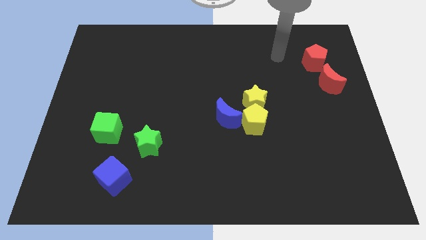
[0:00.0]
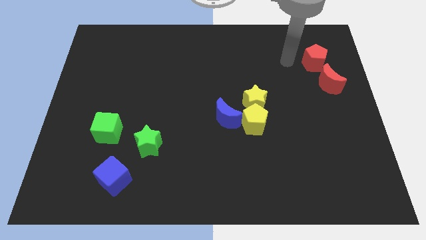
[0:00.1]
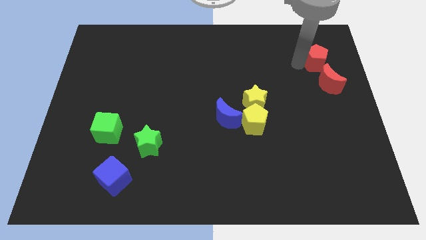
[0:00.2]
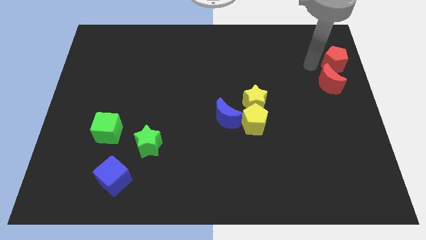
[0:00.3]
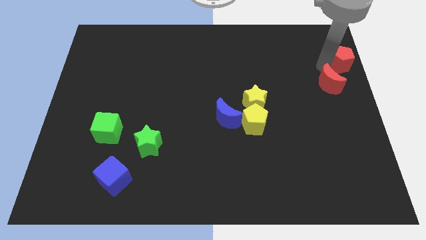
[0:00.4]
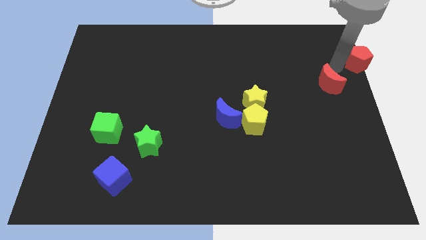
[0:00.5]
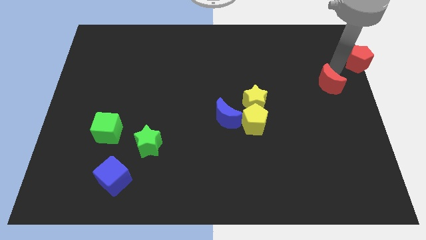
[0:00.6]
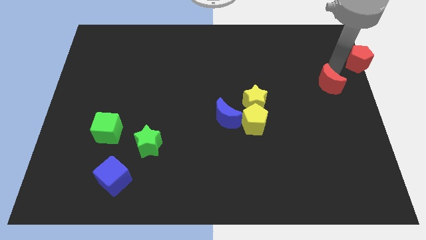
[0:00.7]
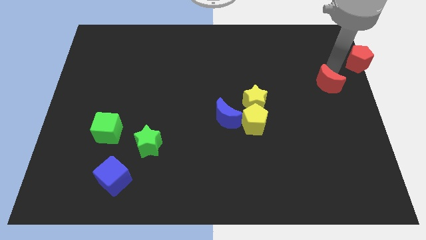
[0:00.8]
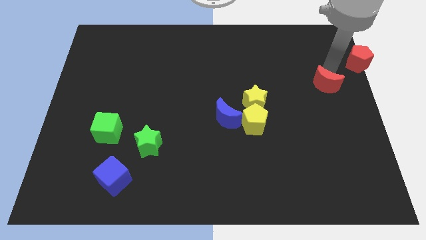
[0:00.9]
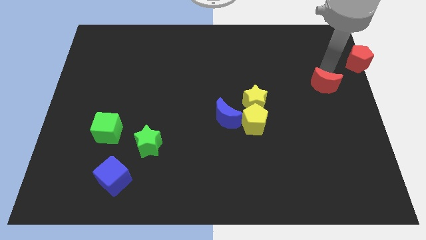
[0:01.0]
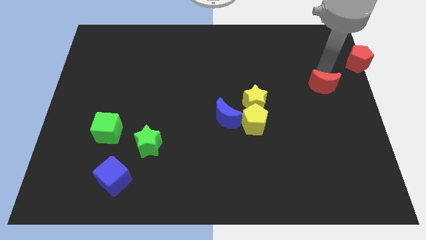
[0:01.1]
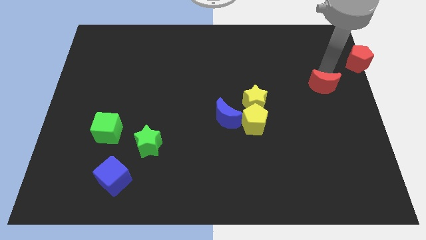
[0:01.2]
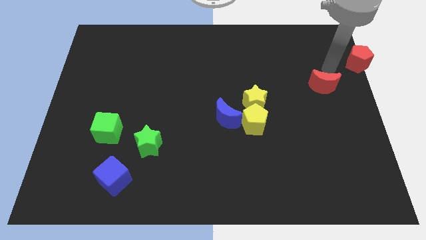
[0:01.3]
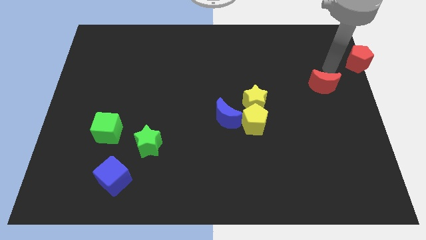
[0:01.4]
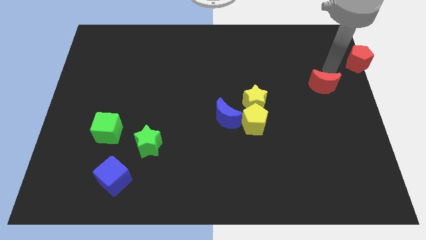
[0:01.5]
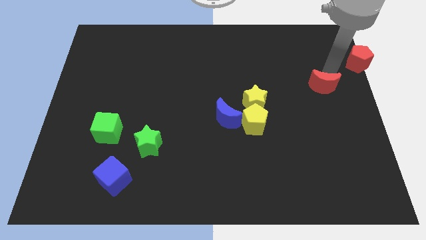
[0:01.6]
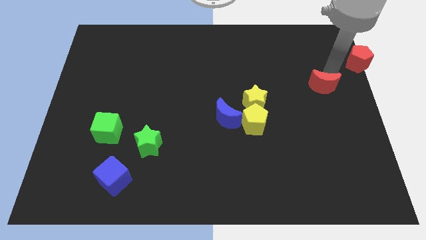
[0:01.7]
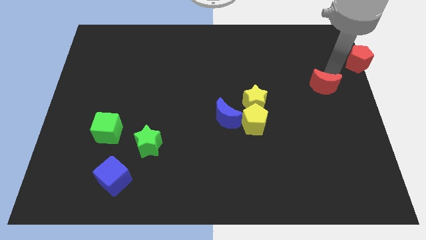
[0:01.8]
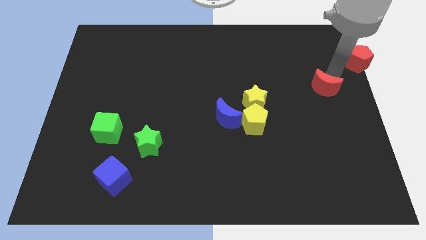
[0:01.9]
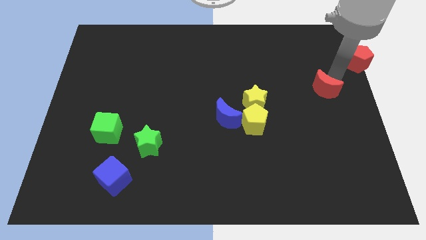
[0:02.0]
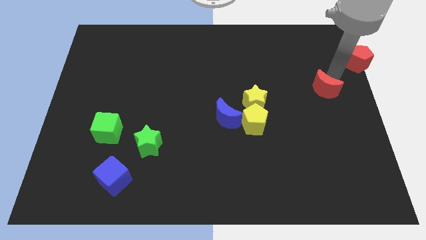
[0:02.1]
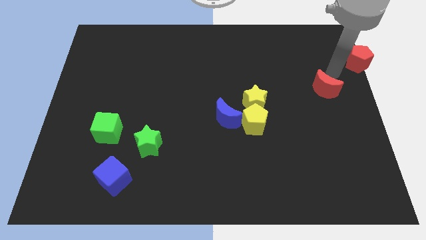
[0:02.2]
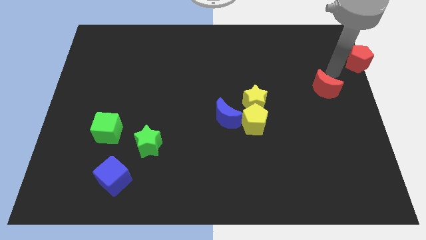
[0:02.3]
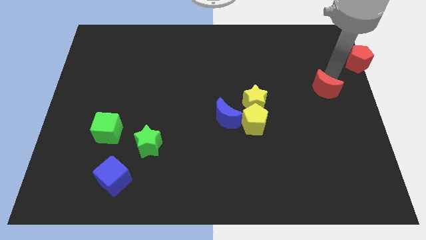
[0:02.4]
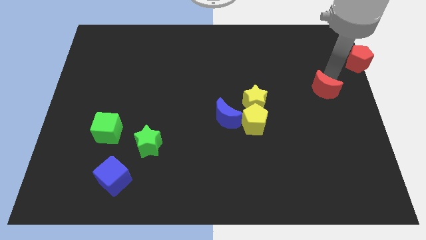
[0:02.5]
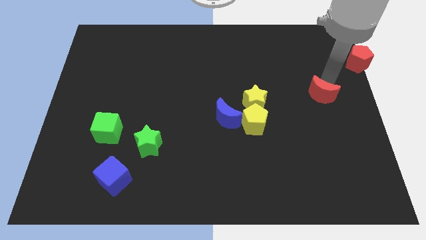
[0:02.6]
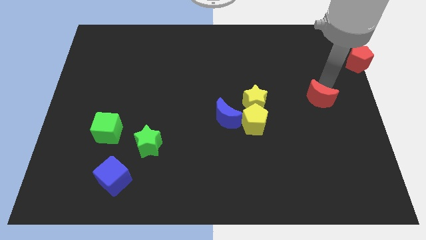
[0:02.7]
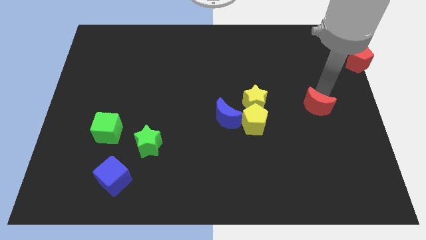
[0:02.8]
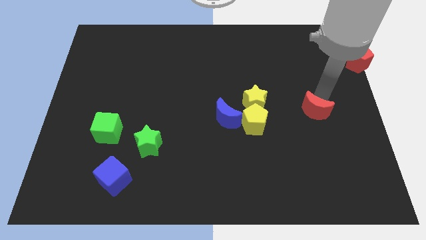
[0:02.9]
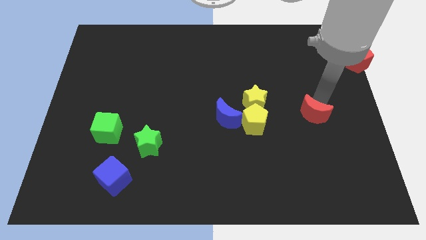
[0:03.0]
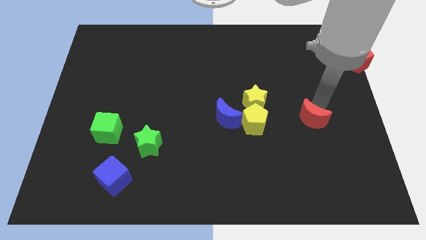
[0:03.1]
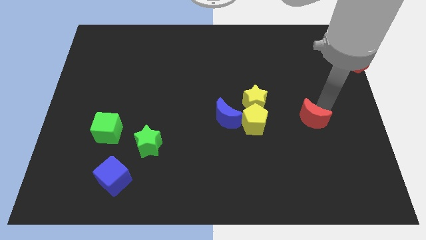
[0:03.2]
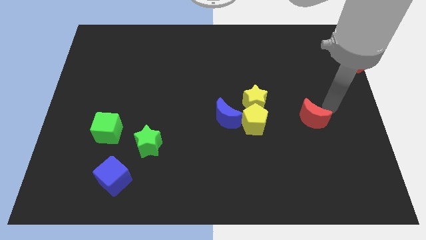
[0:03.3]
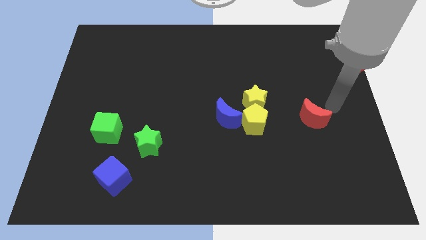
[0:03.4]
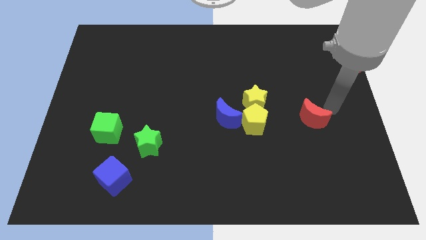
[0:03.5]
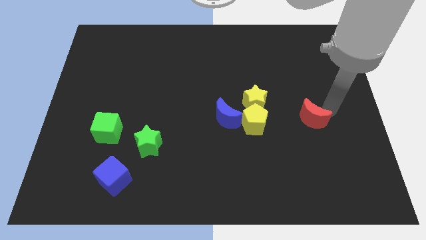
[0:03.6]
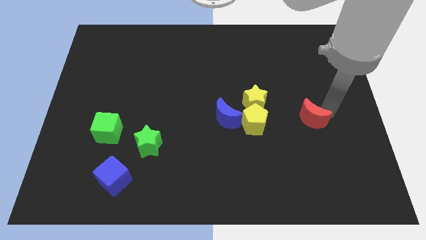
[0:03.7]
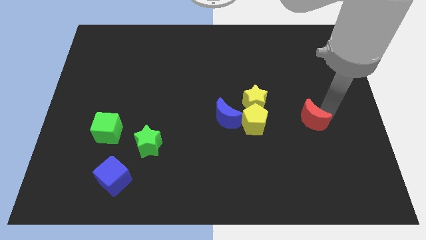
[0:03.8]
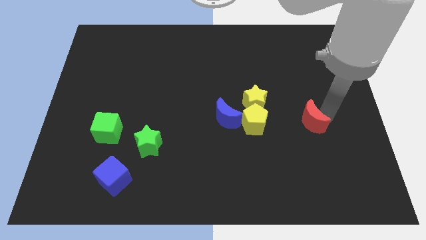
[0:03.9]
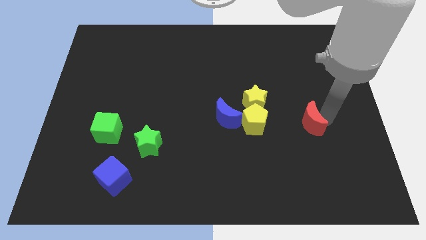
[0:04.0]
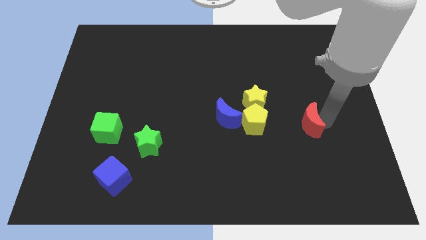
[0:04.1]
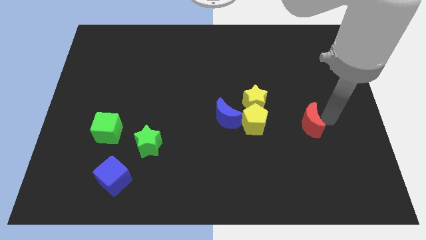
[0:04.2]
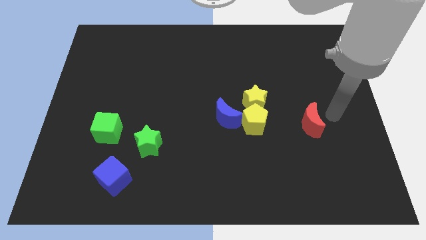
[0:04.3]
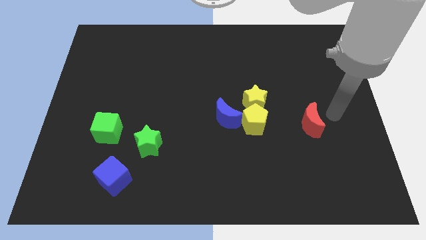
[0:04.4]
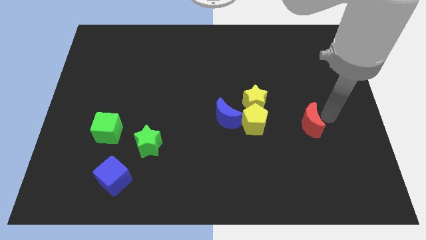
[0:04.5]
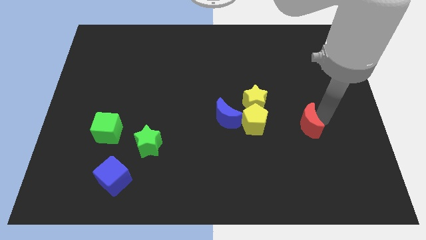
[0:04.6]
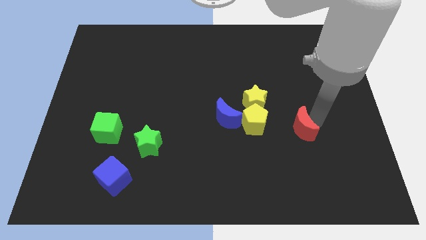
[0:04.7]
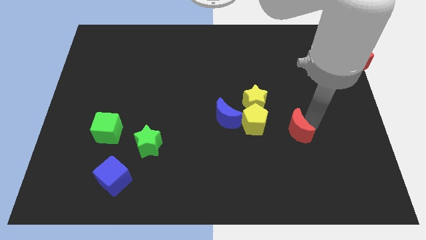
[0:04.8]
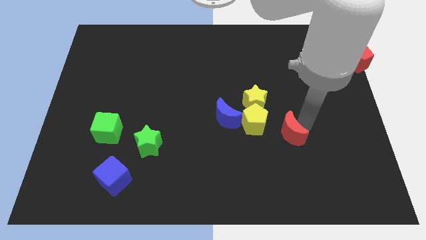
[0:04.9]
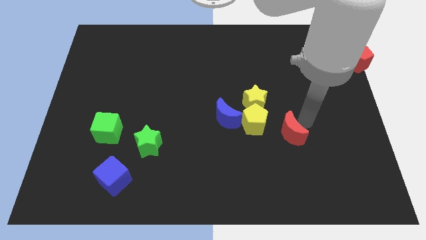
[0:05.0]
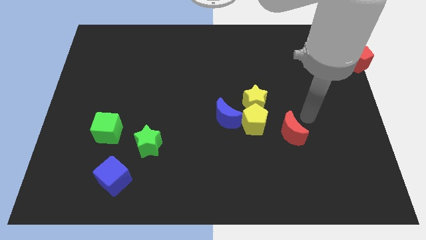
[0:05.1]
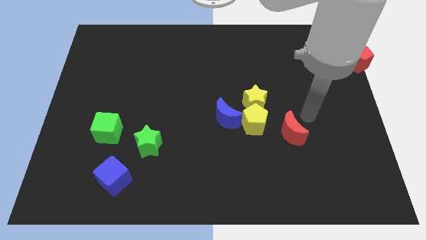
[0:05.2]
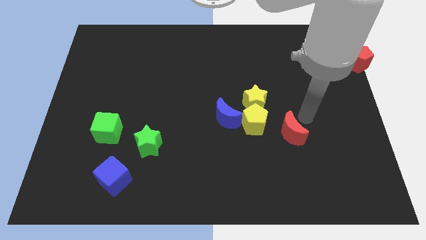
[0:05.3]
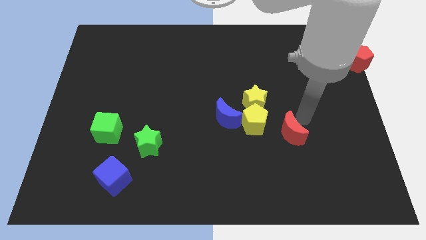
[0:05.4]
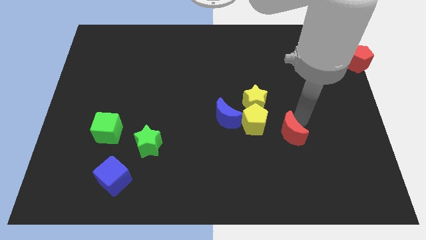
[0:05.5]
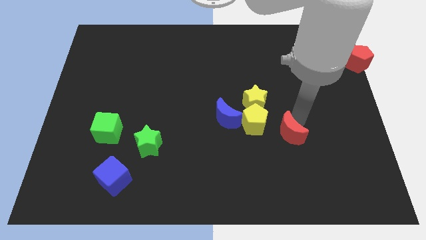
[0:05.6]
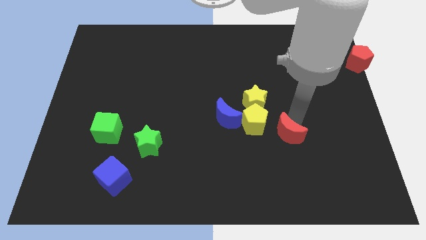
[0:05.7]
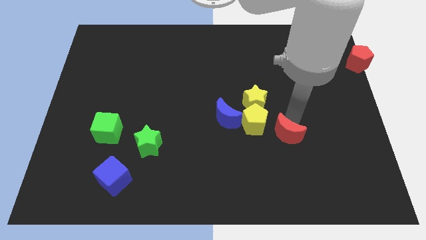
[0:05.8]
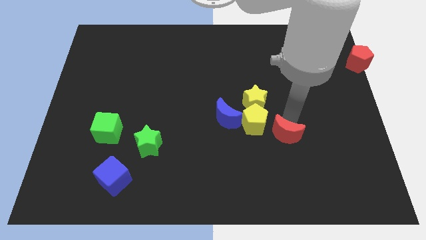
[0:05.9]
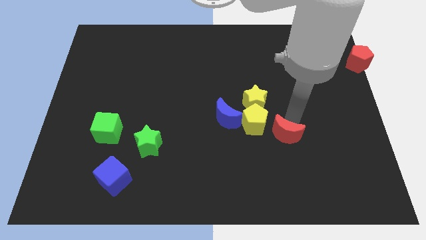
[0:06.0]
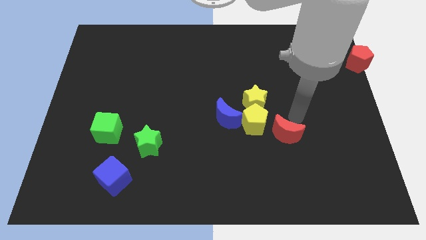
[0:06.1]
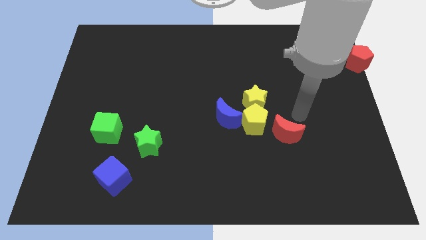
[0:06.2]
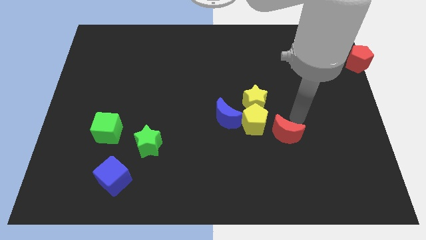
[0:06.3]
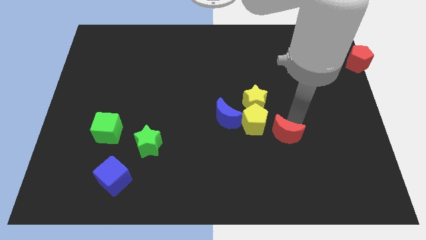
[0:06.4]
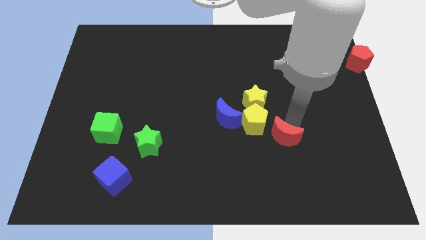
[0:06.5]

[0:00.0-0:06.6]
move the red moon diagonally down and left

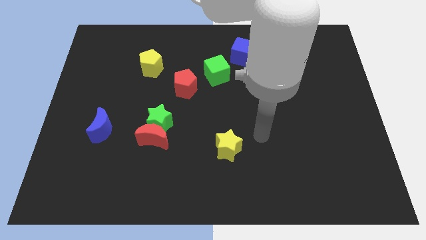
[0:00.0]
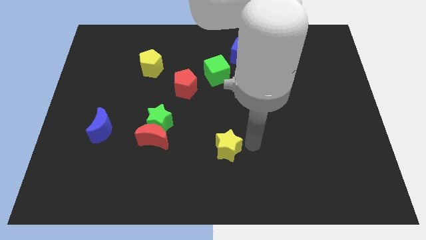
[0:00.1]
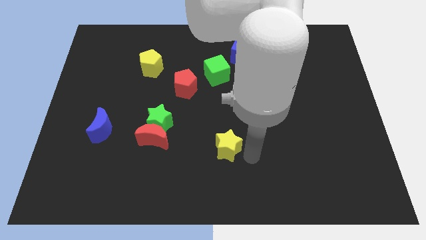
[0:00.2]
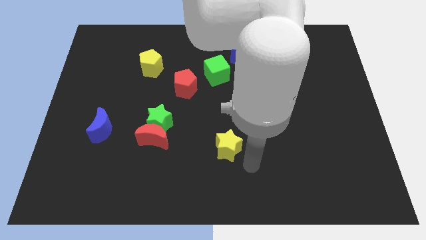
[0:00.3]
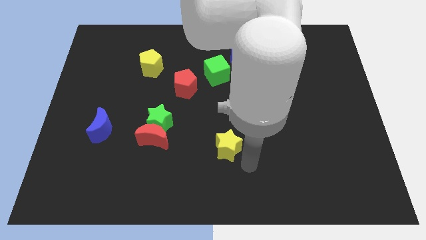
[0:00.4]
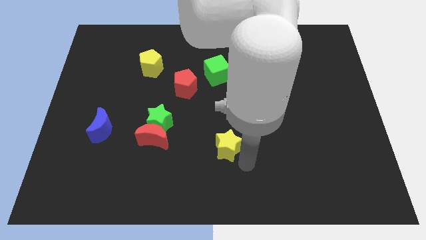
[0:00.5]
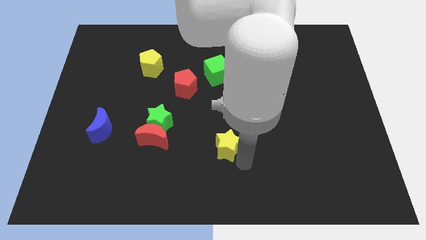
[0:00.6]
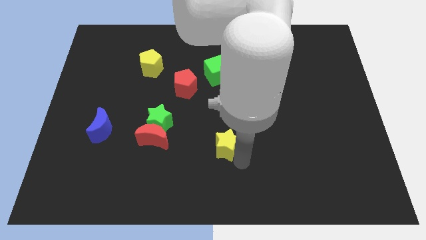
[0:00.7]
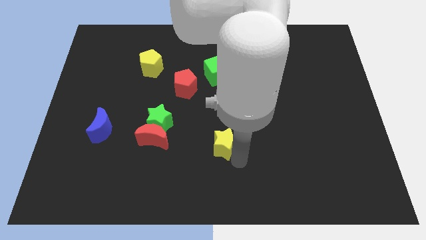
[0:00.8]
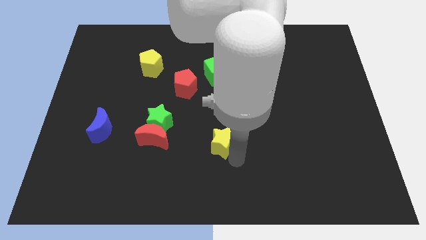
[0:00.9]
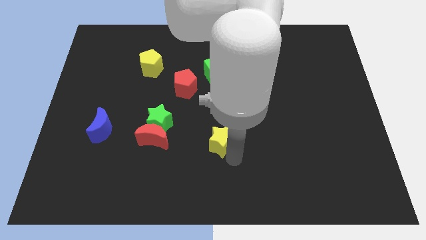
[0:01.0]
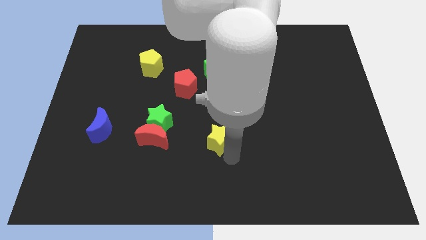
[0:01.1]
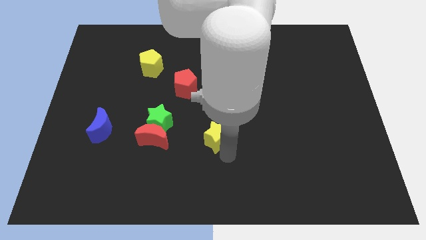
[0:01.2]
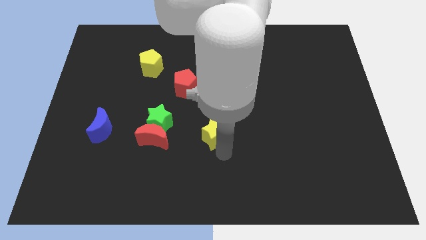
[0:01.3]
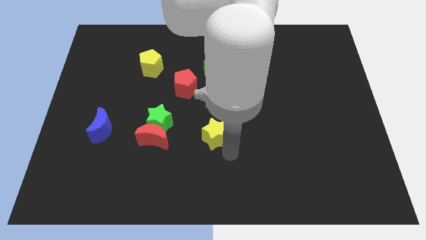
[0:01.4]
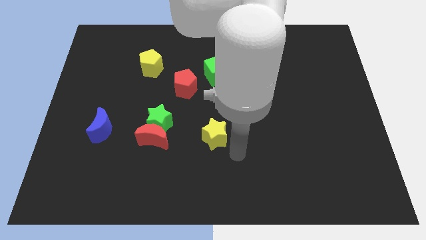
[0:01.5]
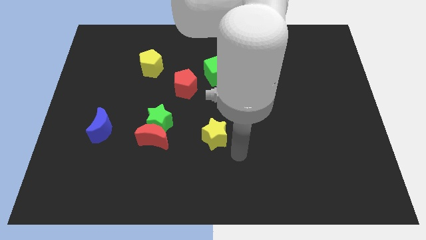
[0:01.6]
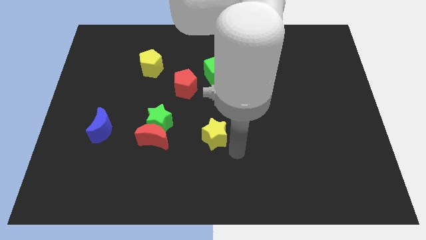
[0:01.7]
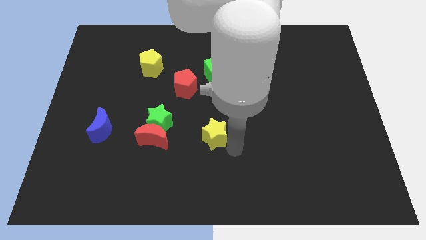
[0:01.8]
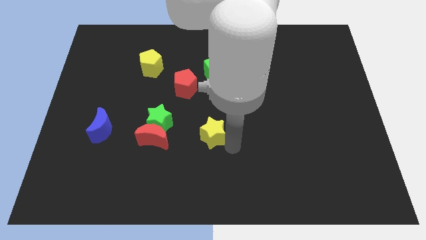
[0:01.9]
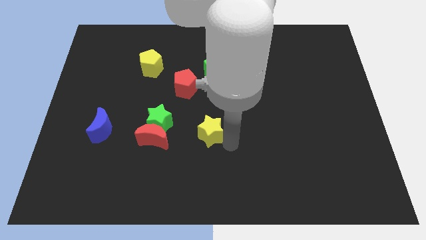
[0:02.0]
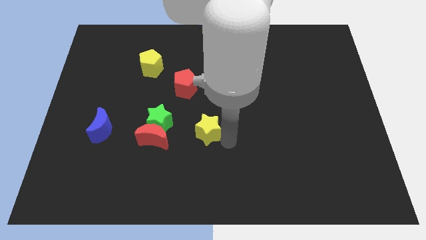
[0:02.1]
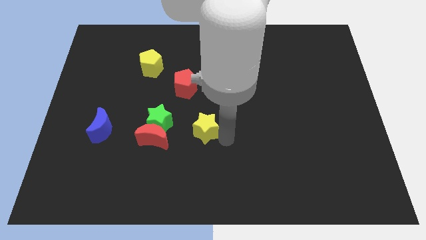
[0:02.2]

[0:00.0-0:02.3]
slide the yellow star up and left a bit
